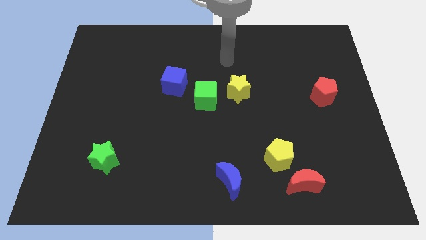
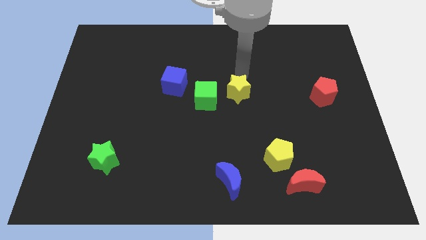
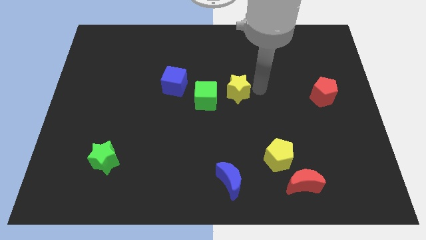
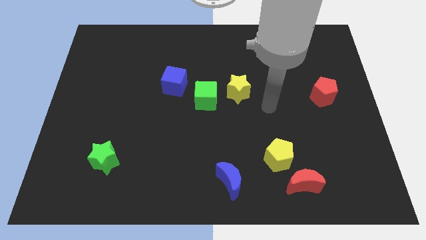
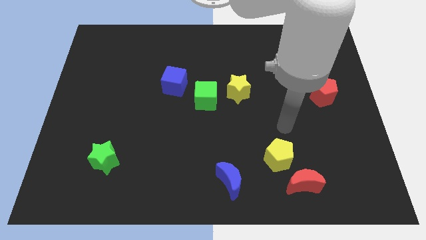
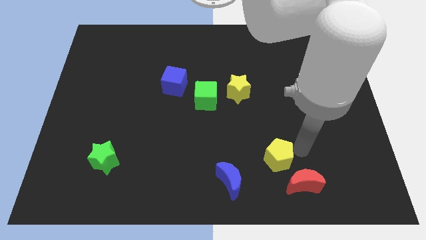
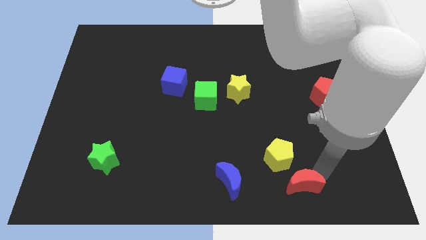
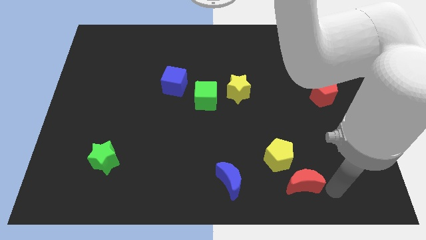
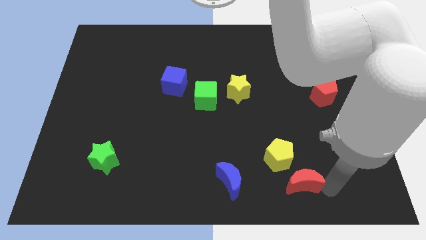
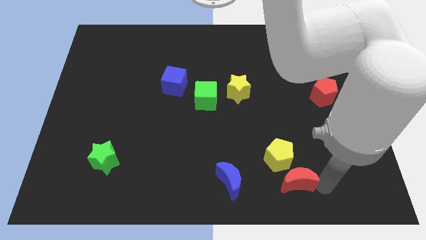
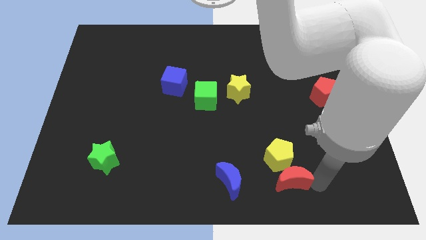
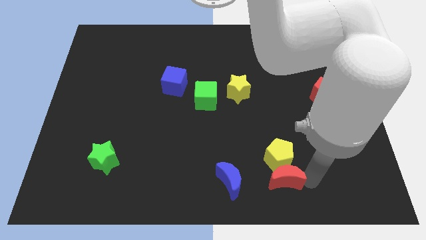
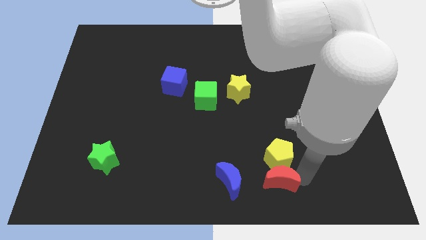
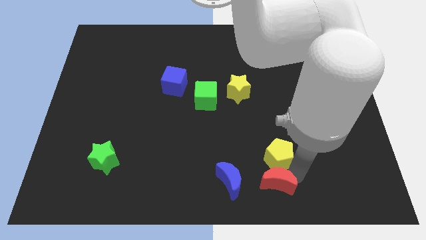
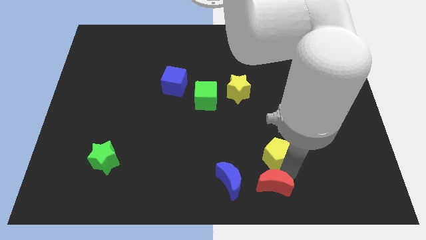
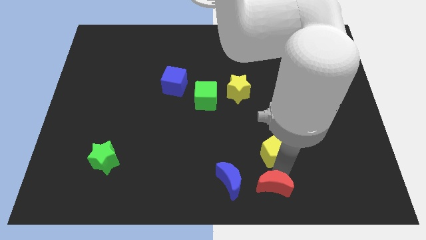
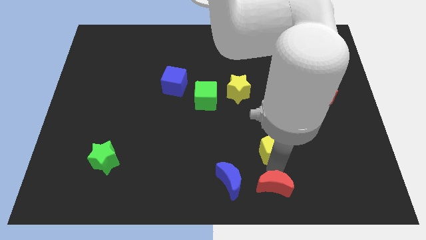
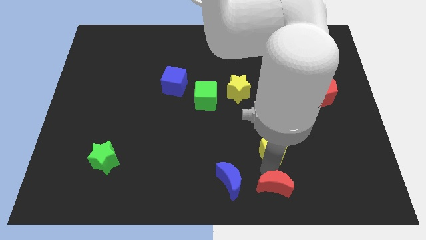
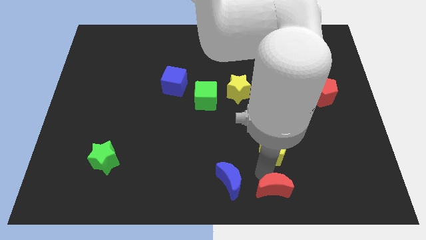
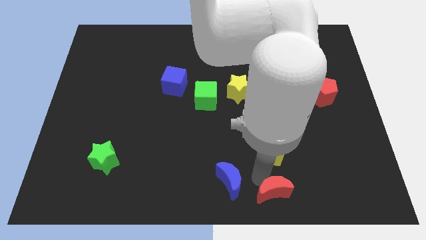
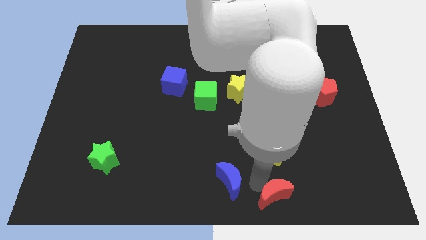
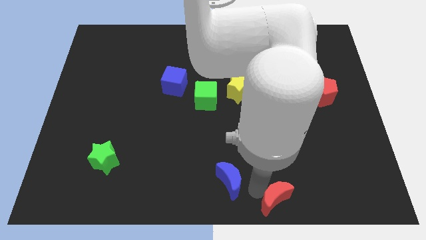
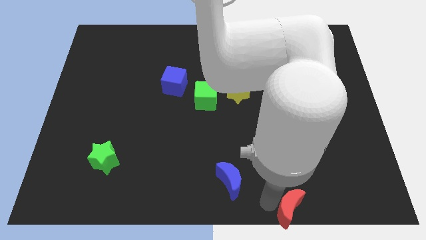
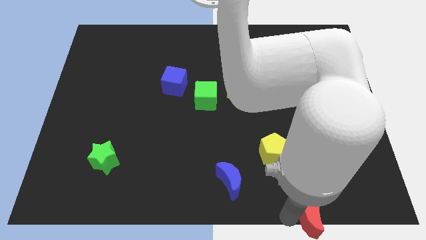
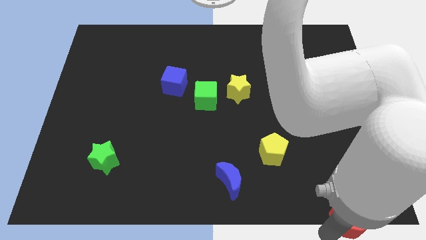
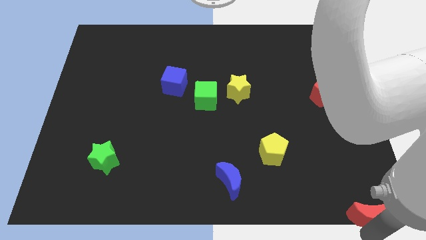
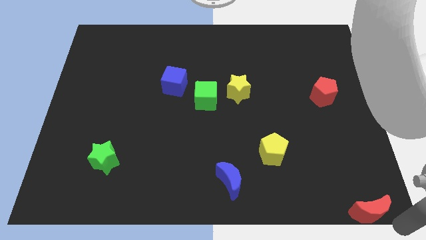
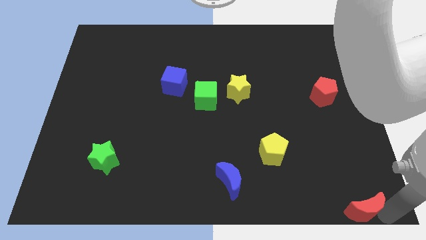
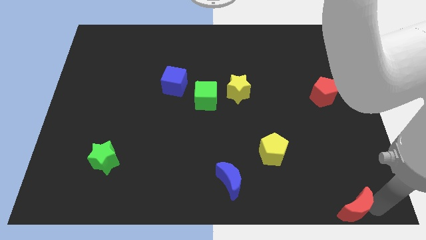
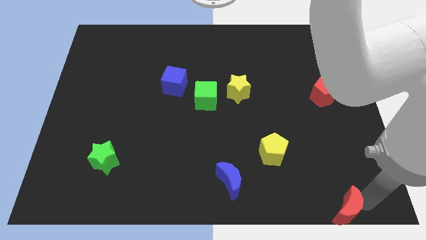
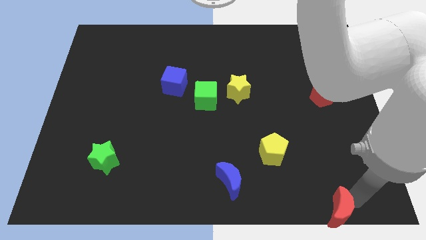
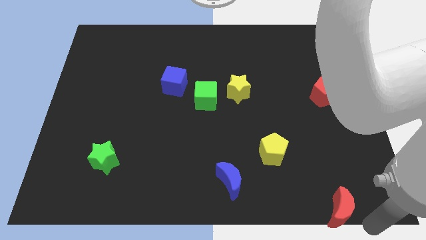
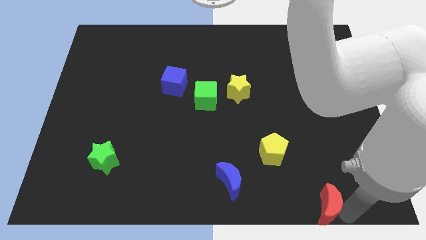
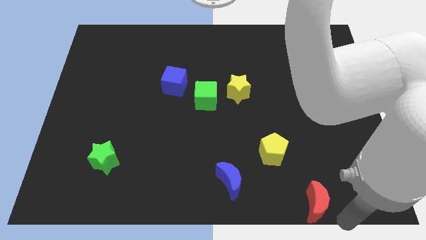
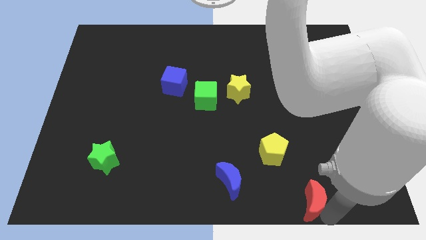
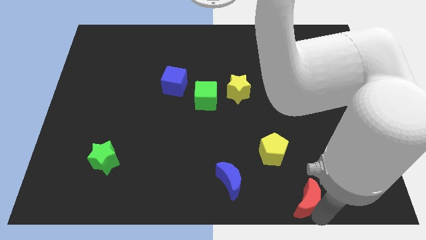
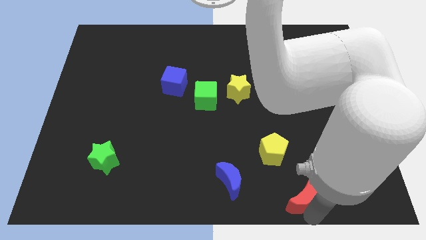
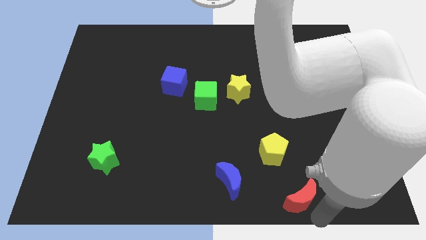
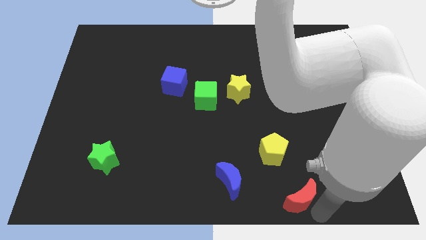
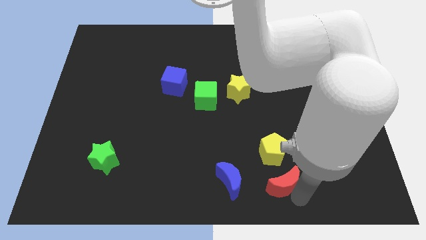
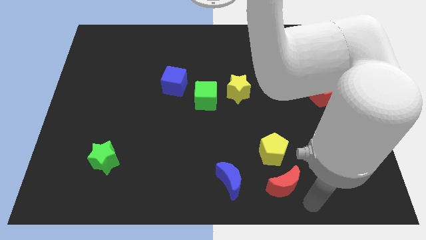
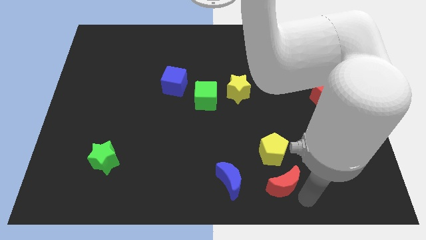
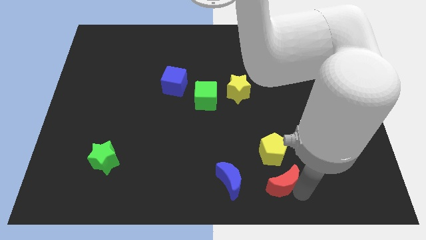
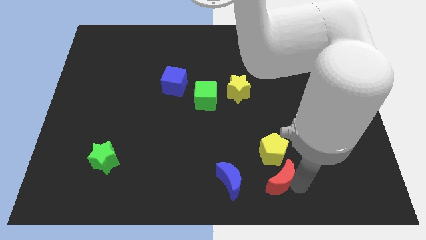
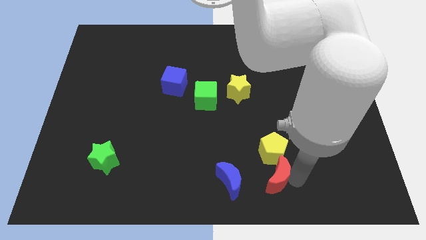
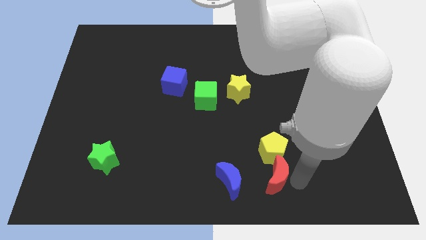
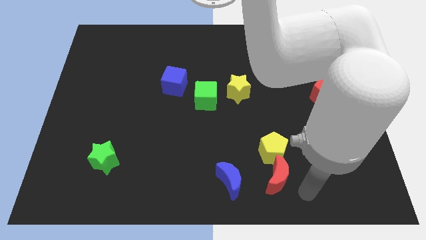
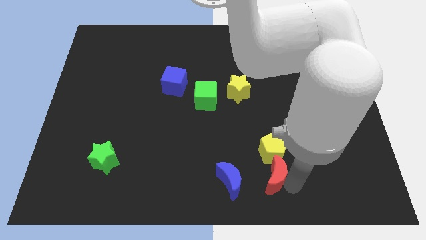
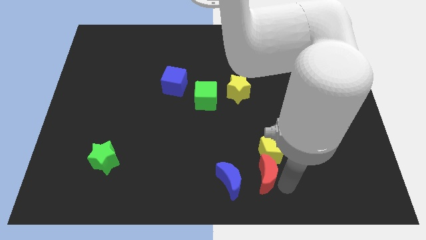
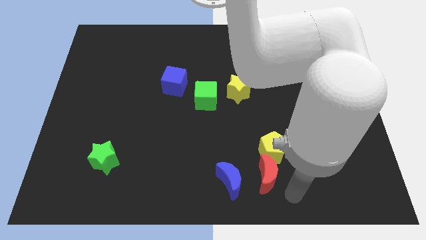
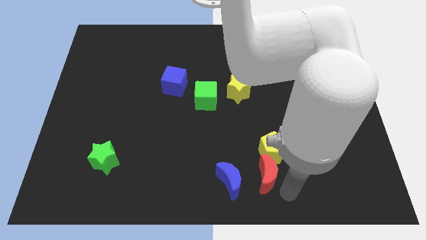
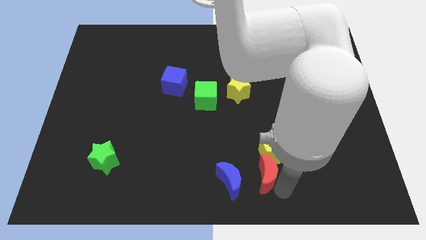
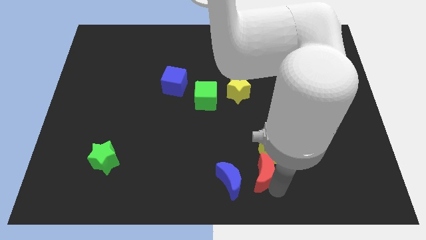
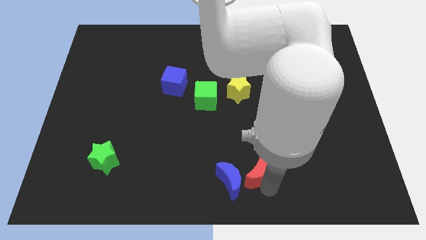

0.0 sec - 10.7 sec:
slightly push the red moon up and then to the left

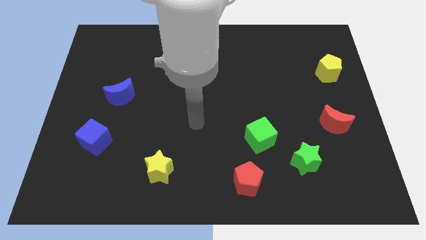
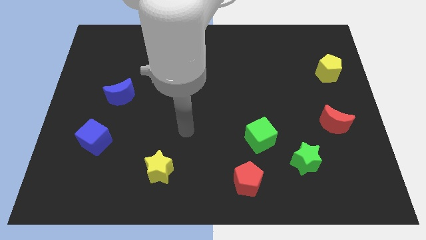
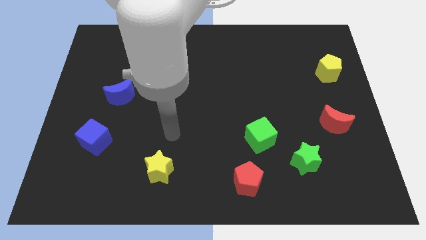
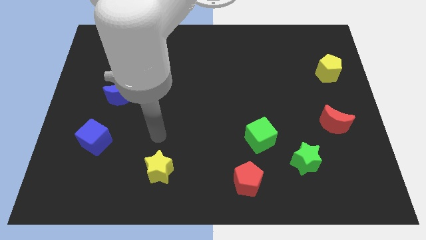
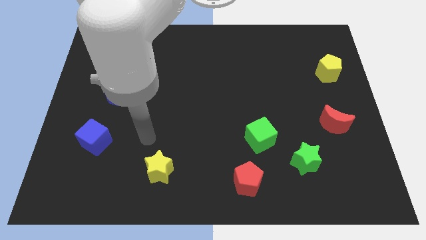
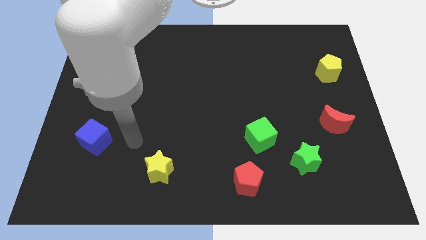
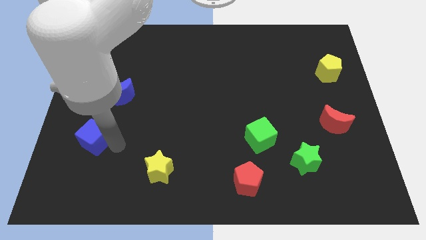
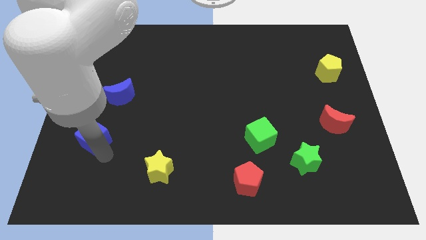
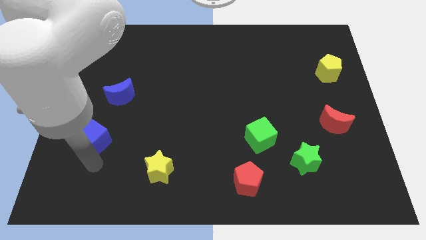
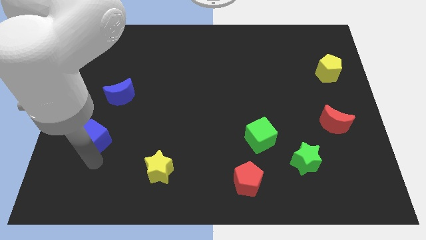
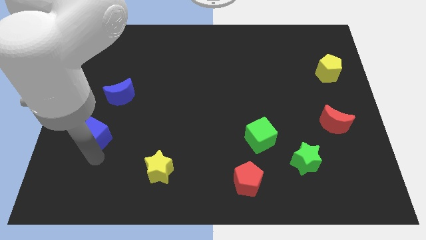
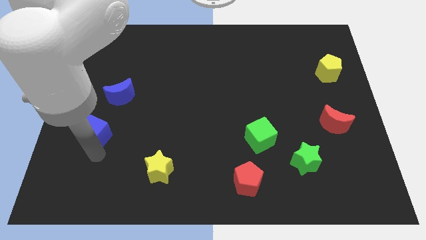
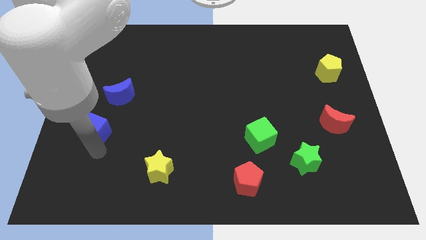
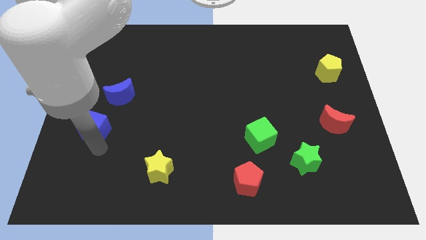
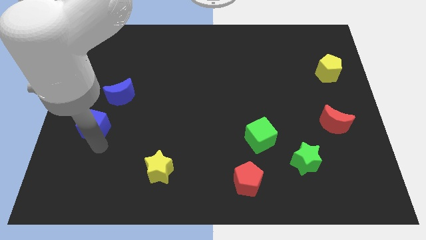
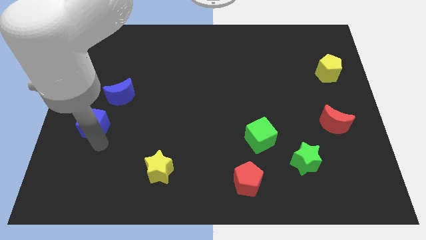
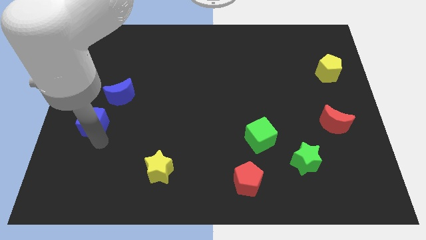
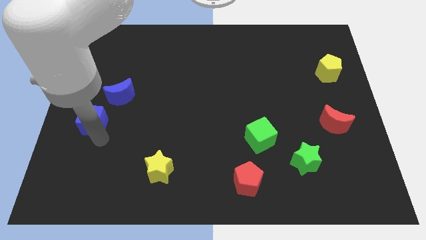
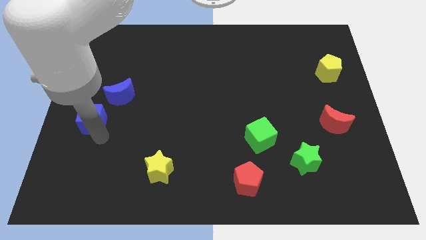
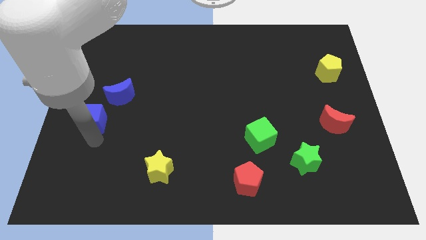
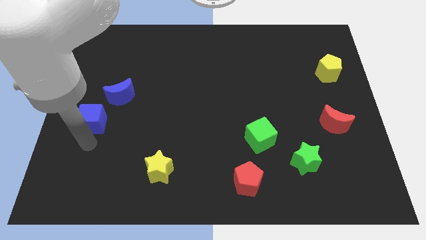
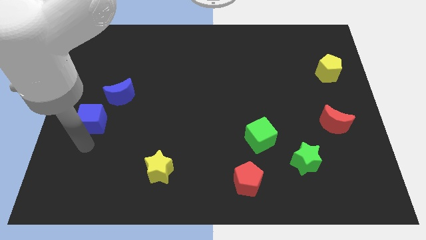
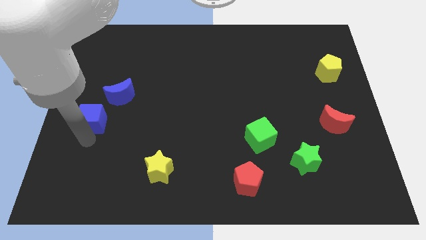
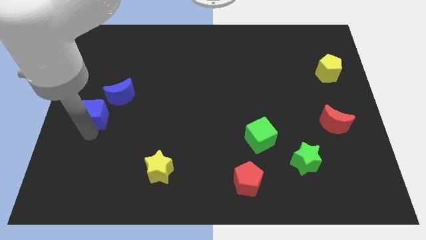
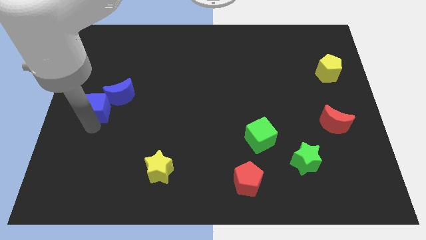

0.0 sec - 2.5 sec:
slide the blue cube somewhat up

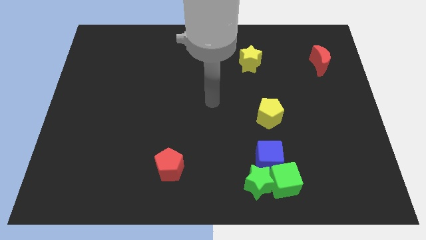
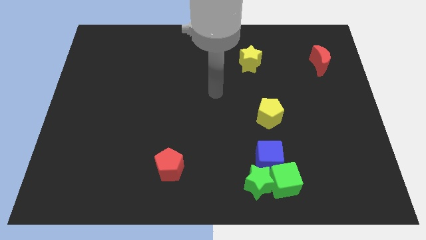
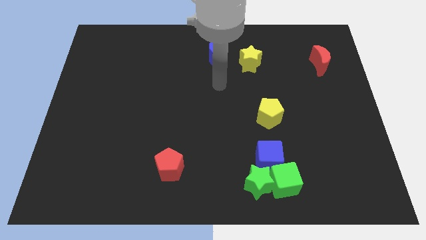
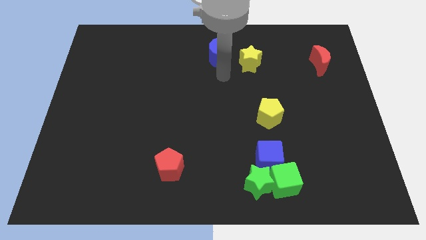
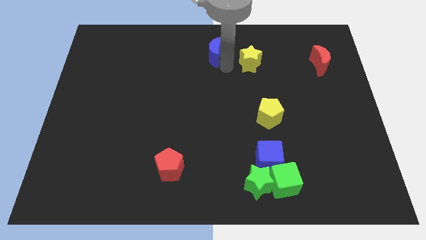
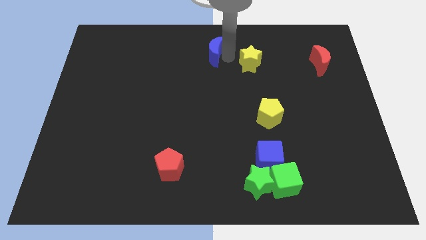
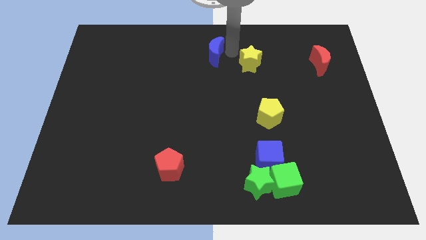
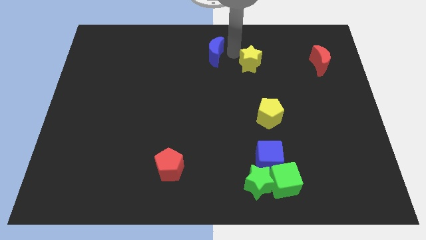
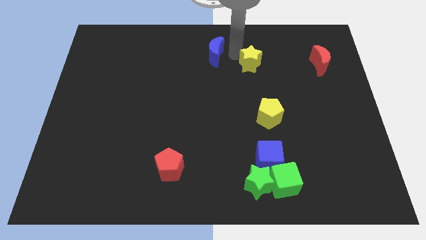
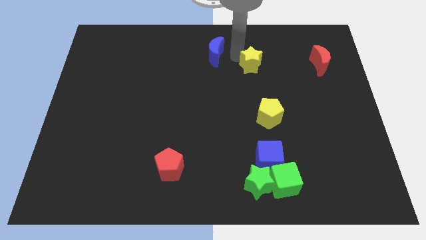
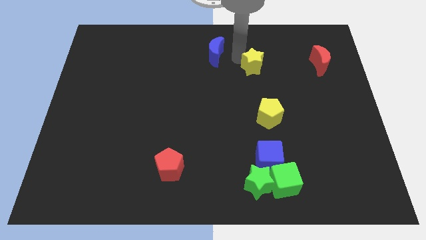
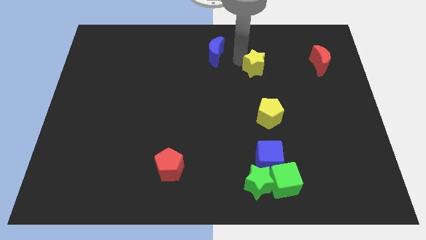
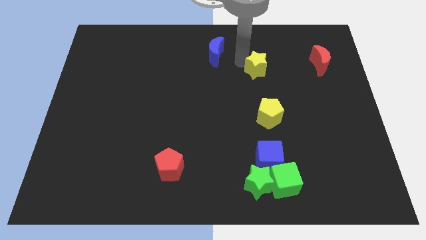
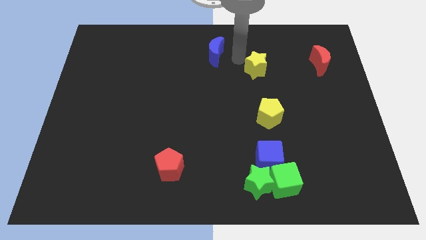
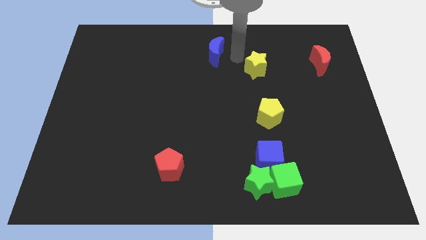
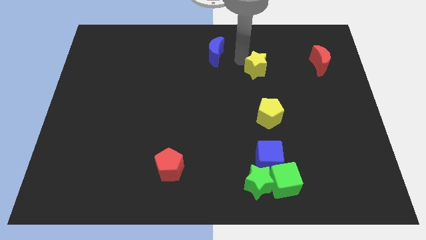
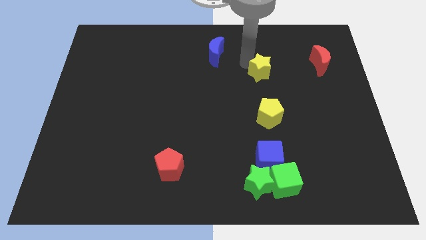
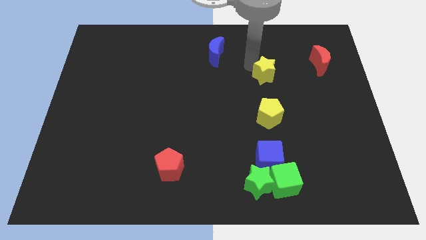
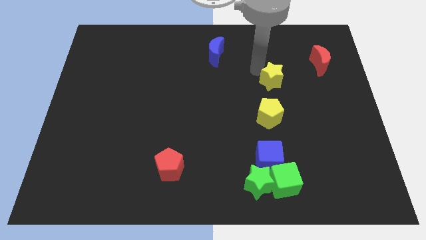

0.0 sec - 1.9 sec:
slightly move the yellow star downwards and right diagonally
